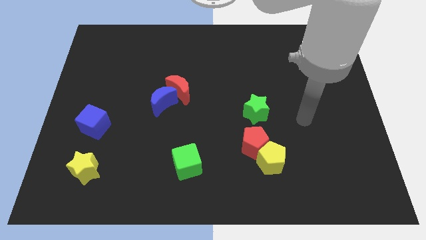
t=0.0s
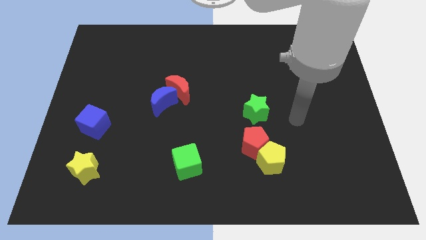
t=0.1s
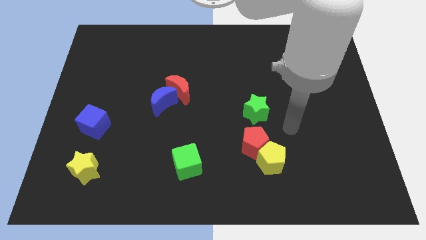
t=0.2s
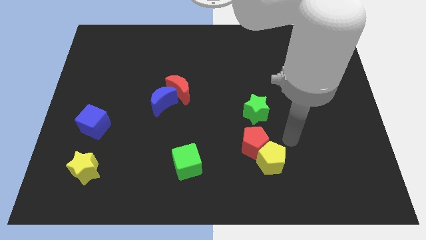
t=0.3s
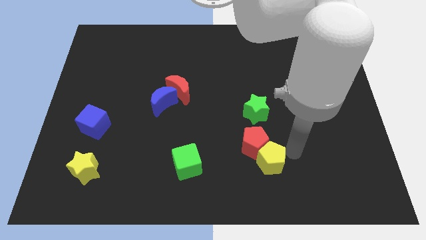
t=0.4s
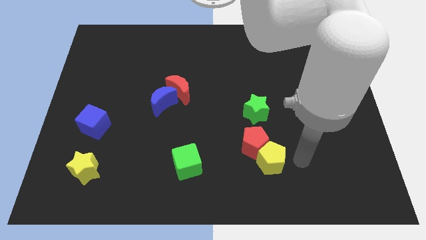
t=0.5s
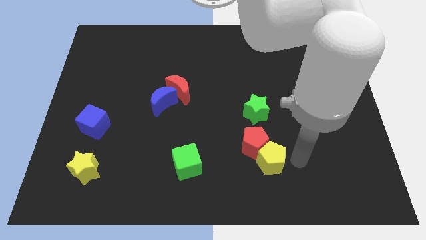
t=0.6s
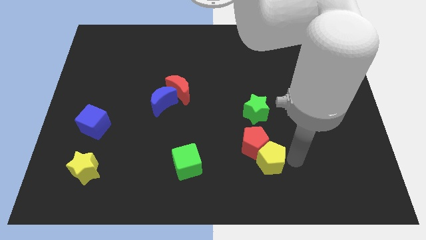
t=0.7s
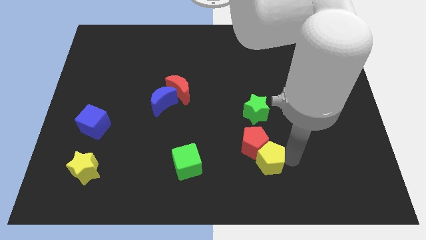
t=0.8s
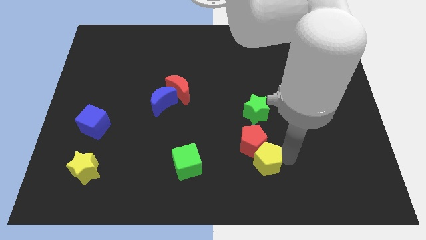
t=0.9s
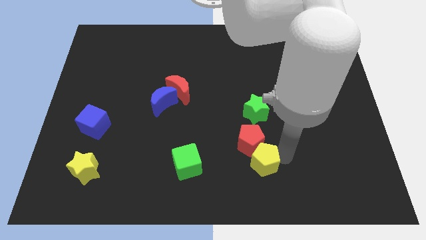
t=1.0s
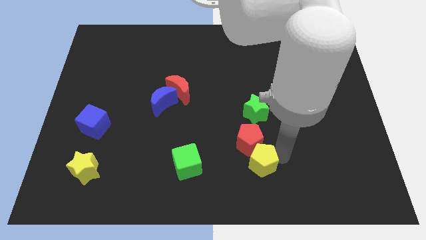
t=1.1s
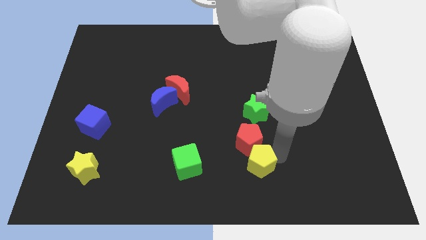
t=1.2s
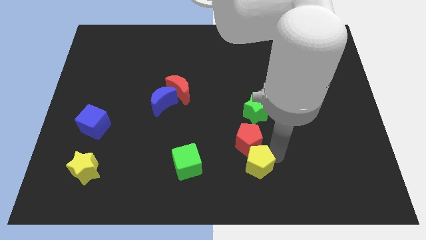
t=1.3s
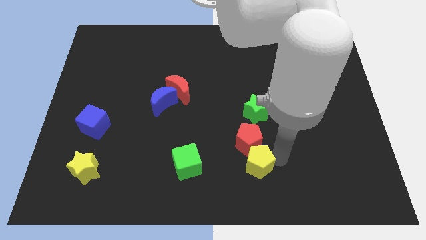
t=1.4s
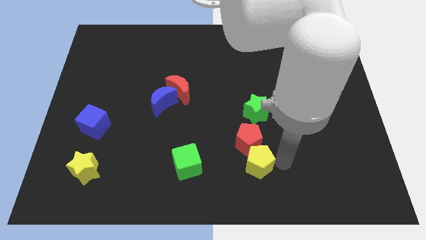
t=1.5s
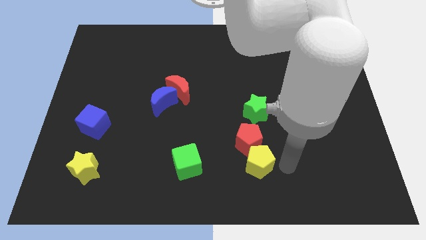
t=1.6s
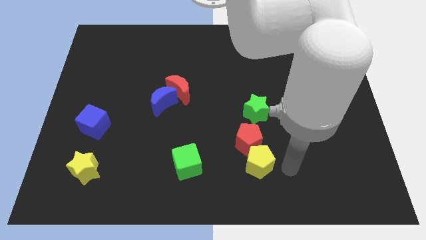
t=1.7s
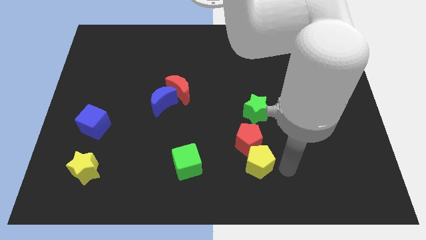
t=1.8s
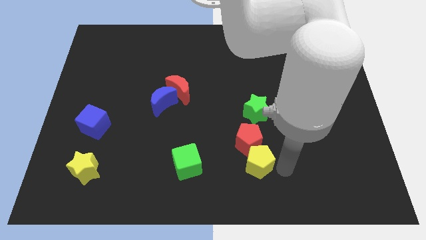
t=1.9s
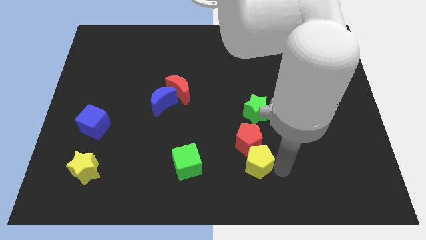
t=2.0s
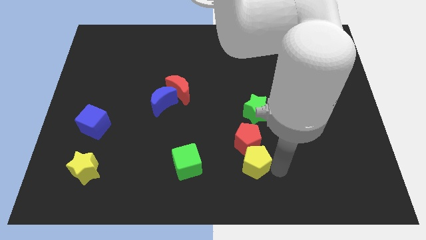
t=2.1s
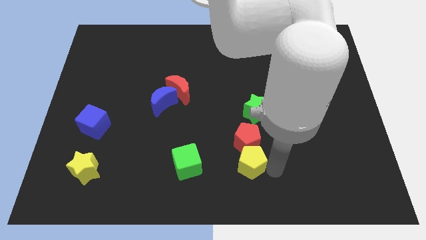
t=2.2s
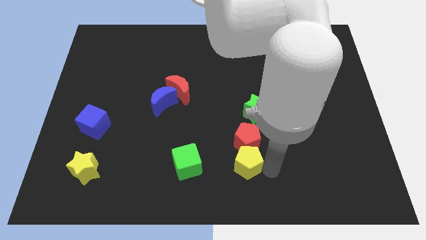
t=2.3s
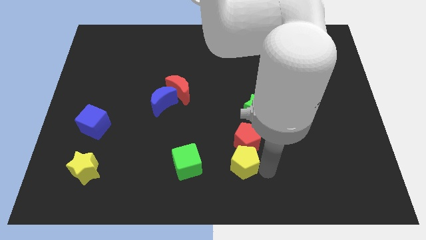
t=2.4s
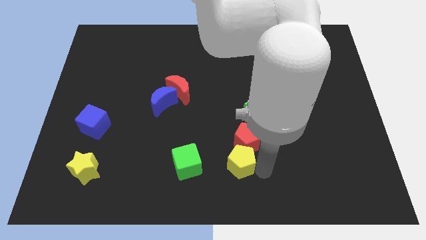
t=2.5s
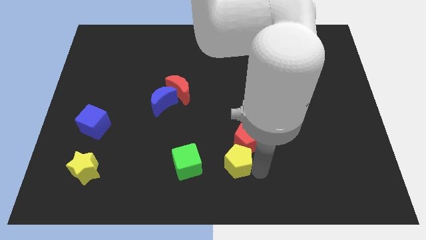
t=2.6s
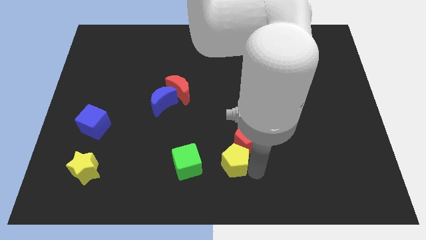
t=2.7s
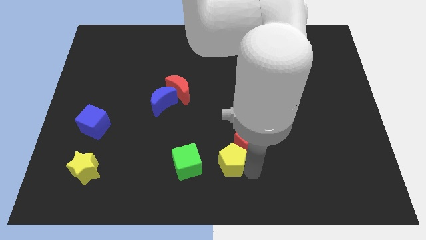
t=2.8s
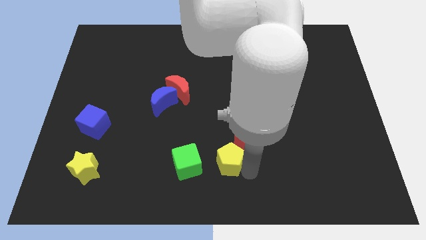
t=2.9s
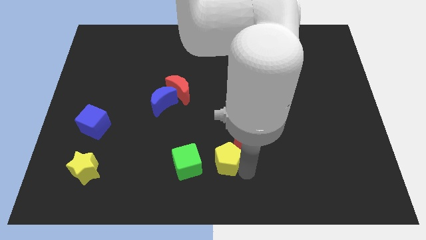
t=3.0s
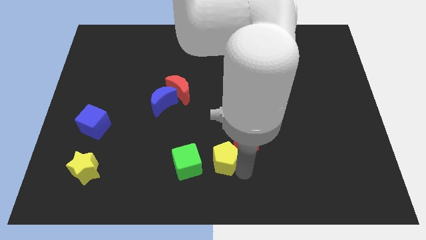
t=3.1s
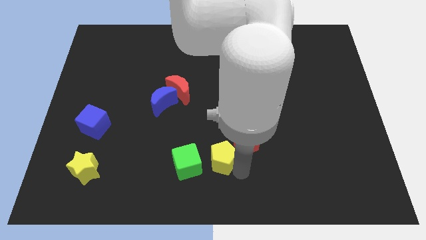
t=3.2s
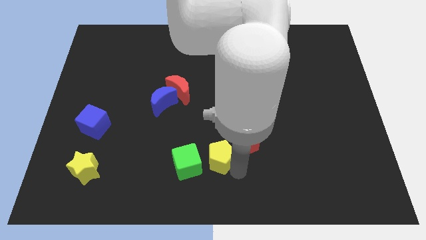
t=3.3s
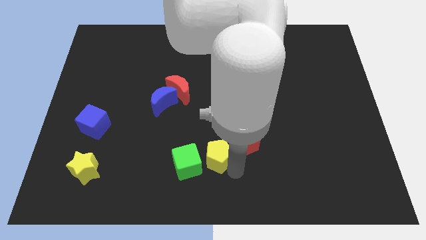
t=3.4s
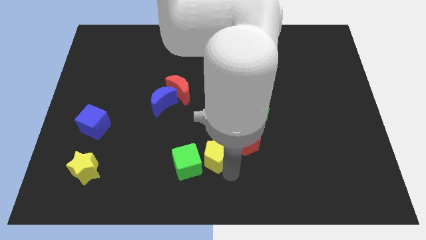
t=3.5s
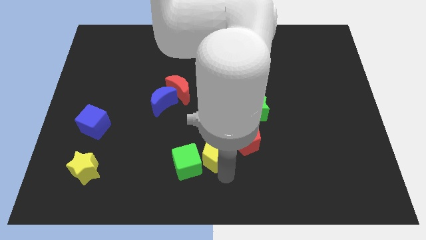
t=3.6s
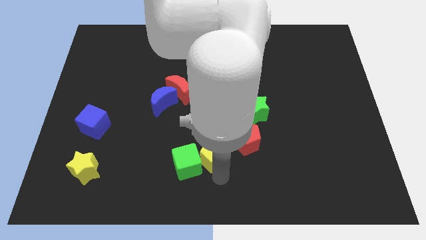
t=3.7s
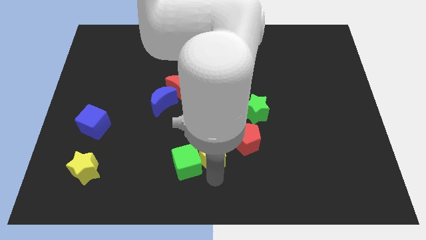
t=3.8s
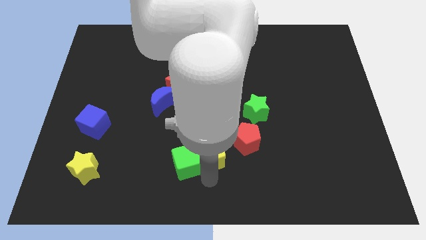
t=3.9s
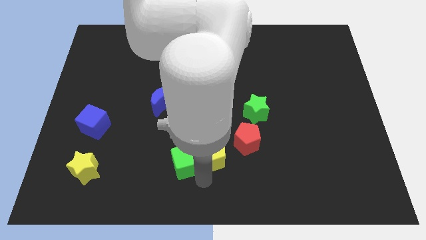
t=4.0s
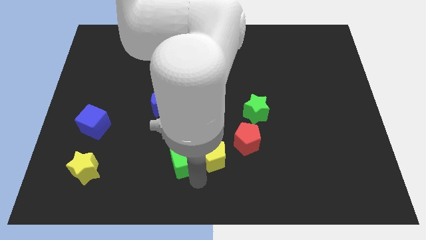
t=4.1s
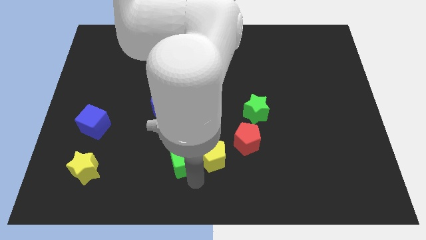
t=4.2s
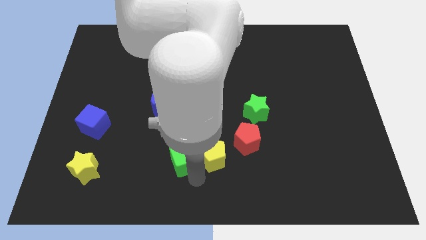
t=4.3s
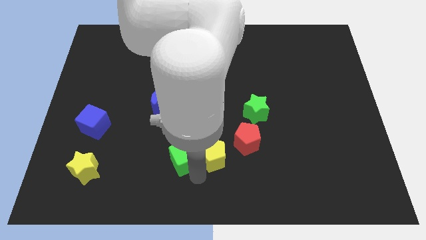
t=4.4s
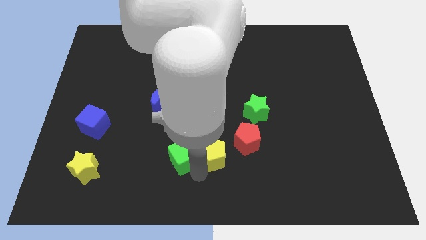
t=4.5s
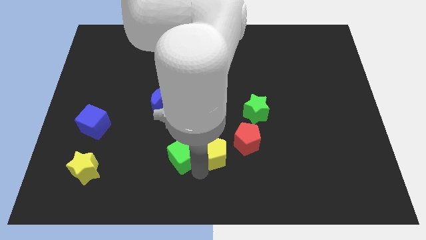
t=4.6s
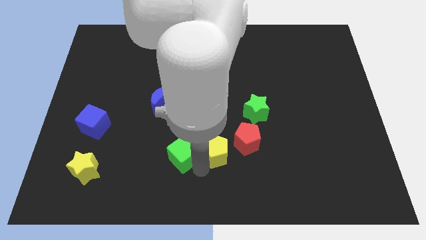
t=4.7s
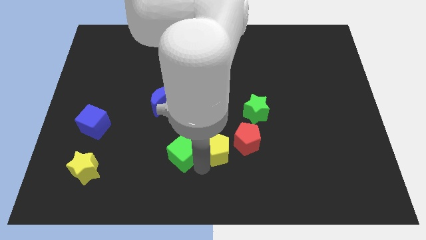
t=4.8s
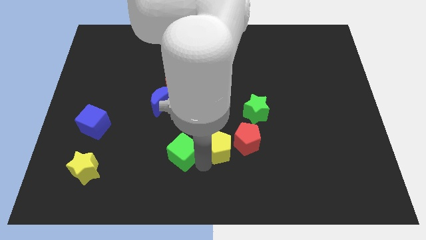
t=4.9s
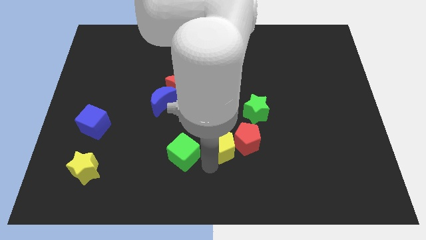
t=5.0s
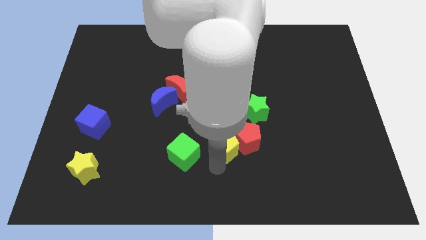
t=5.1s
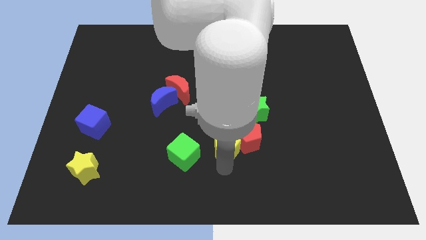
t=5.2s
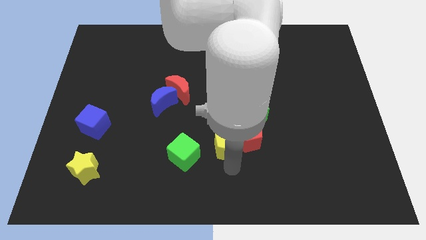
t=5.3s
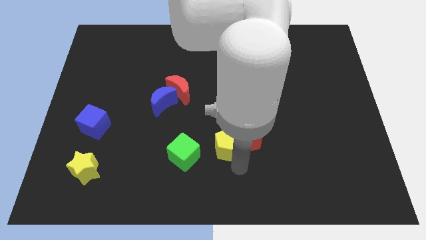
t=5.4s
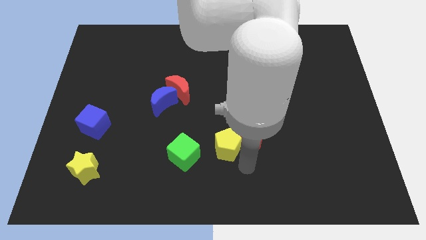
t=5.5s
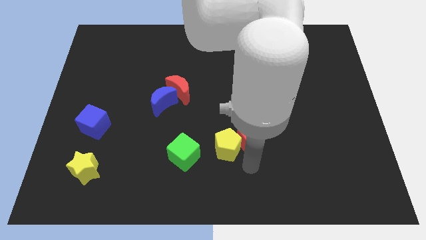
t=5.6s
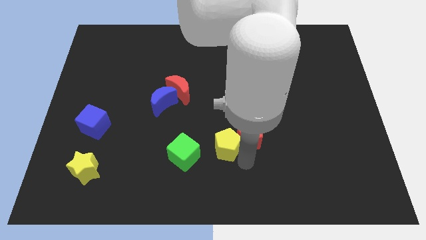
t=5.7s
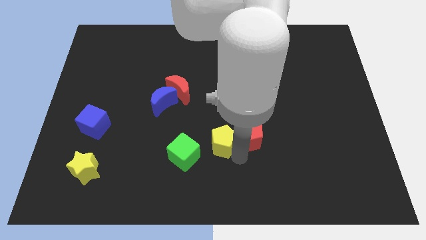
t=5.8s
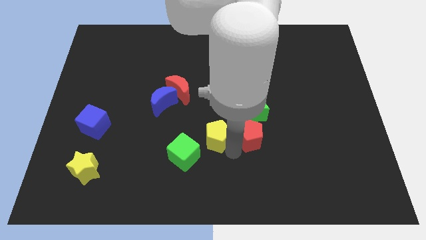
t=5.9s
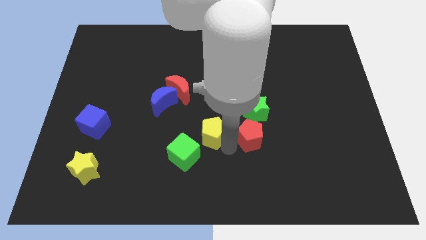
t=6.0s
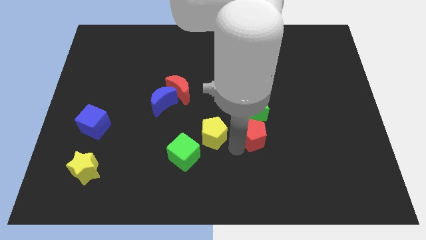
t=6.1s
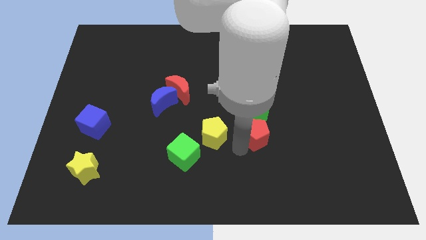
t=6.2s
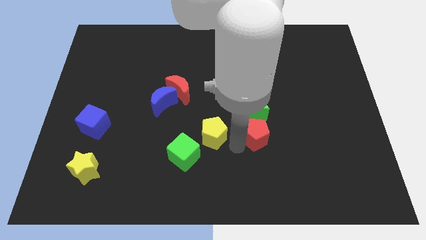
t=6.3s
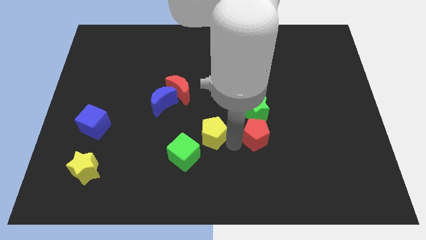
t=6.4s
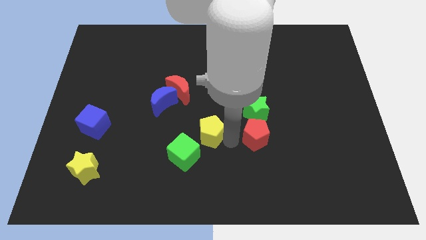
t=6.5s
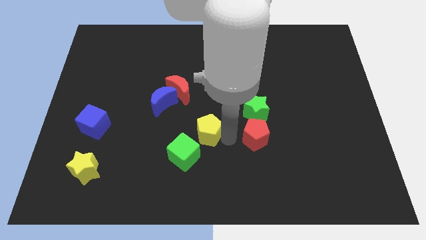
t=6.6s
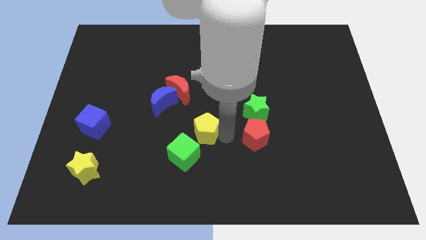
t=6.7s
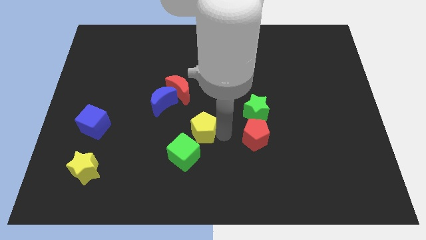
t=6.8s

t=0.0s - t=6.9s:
push the yellow pentagon diagonally down and to the right of the blue moon
